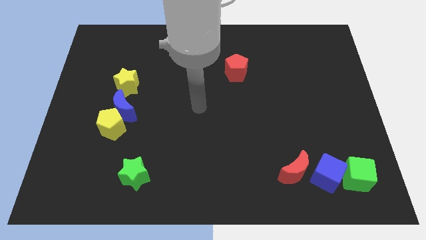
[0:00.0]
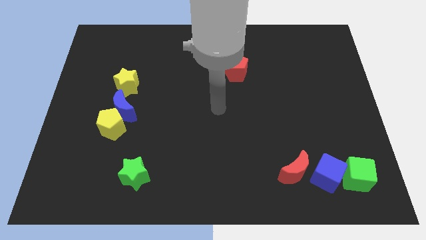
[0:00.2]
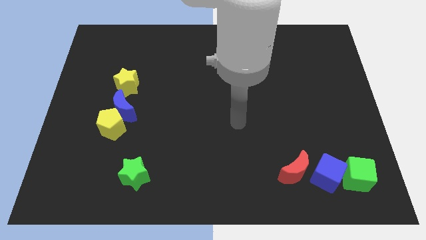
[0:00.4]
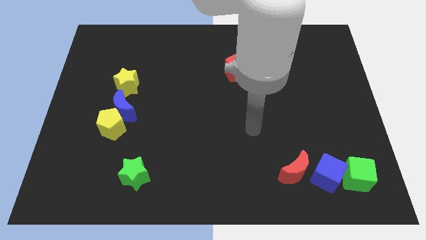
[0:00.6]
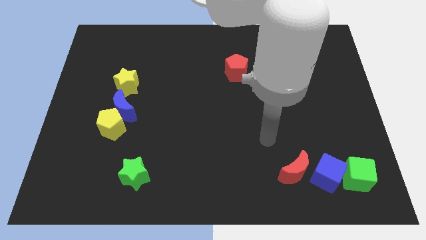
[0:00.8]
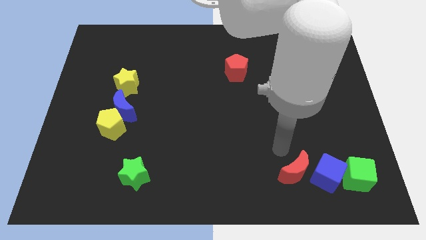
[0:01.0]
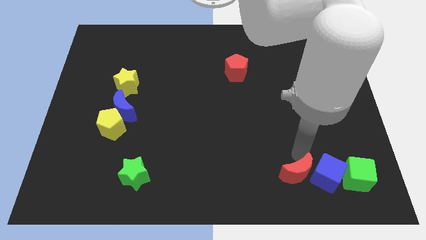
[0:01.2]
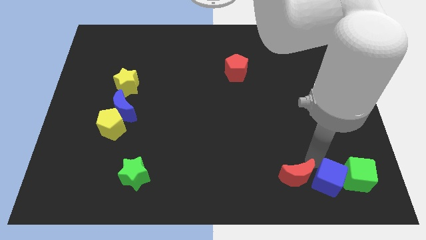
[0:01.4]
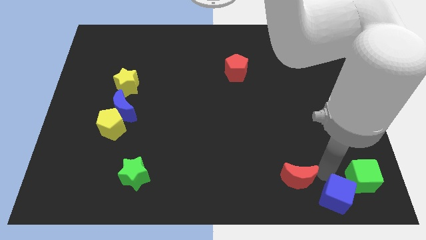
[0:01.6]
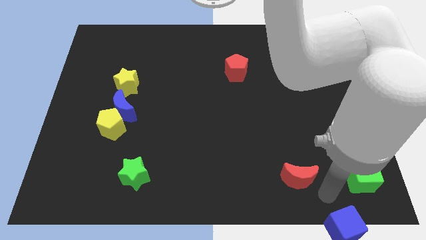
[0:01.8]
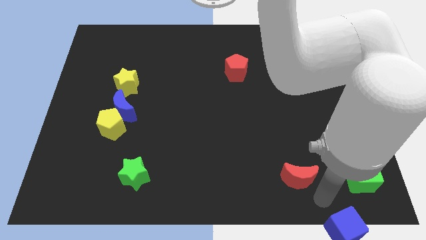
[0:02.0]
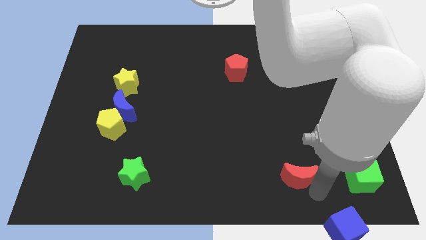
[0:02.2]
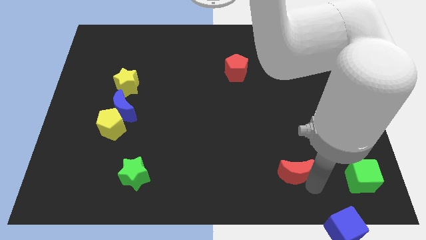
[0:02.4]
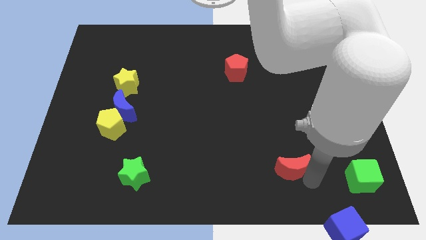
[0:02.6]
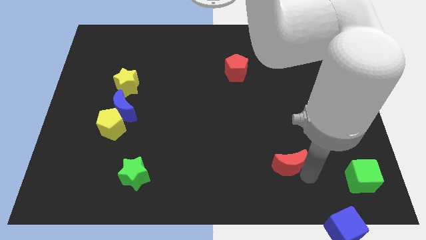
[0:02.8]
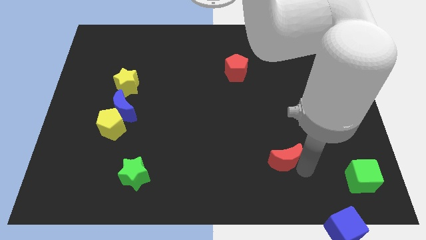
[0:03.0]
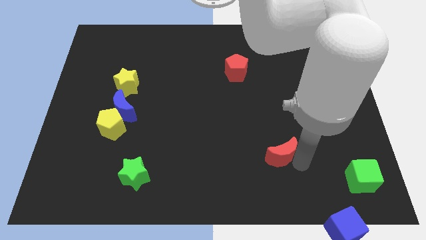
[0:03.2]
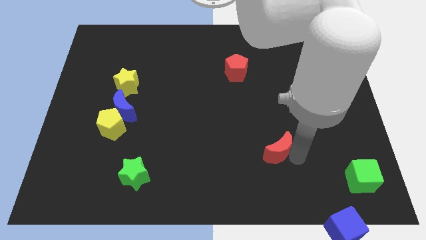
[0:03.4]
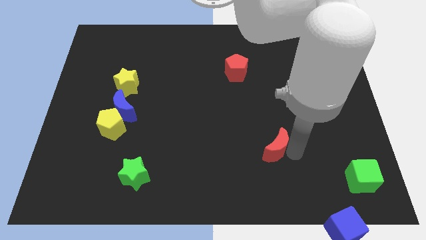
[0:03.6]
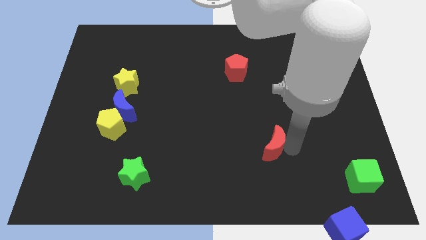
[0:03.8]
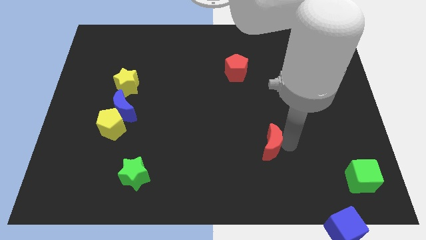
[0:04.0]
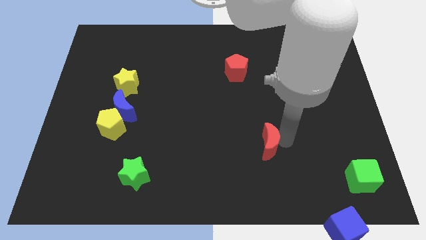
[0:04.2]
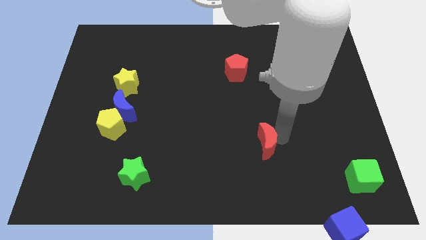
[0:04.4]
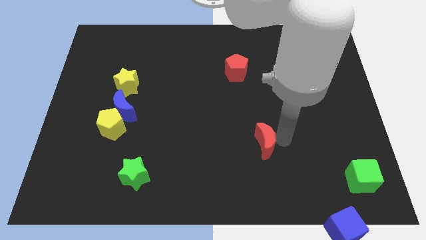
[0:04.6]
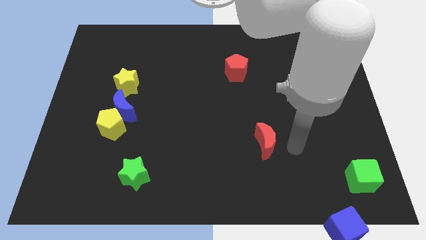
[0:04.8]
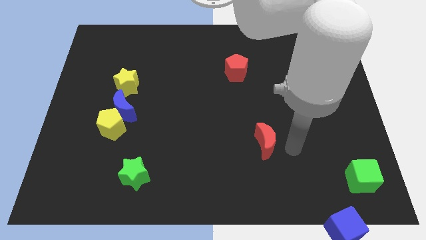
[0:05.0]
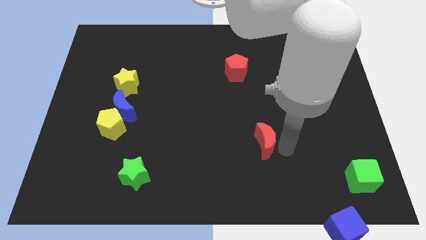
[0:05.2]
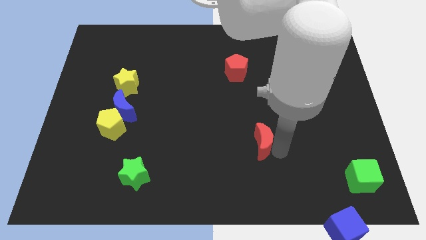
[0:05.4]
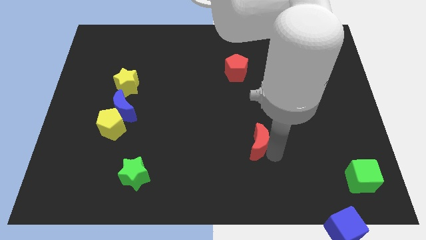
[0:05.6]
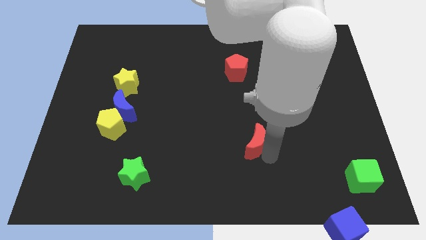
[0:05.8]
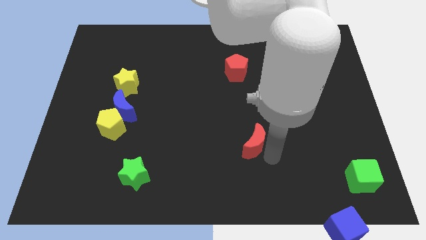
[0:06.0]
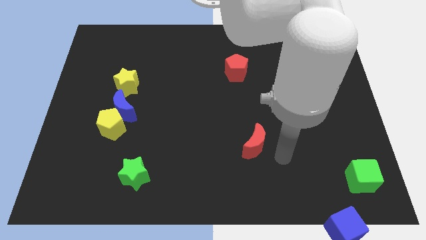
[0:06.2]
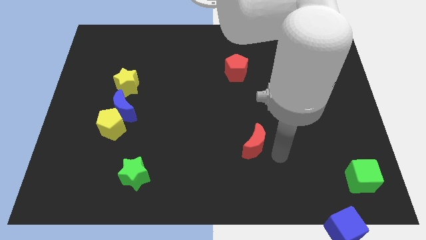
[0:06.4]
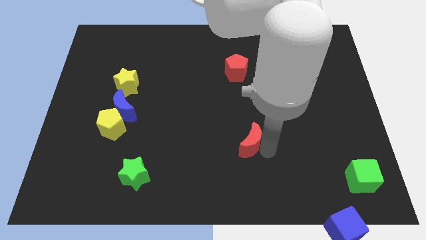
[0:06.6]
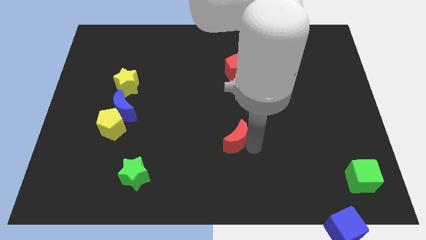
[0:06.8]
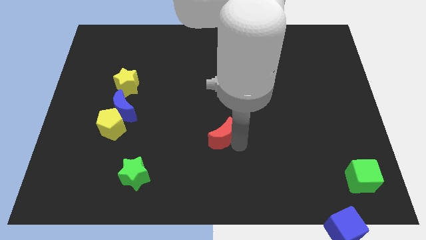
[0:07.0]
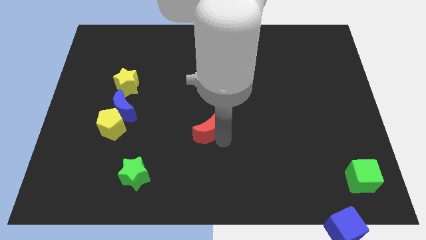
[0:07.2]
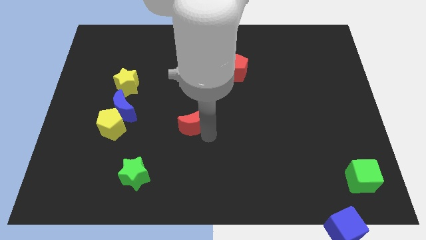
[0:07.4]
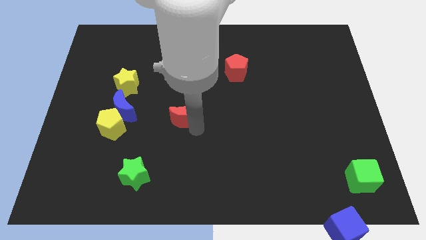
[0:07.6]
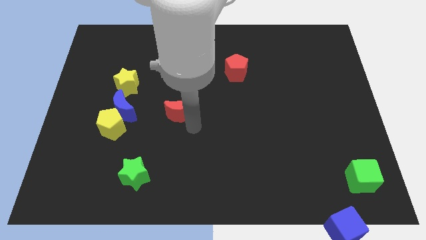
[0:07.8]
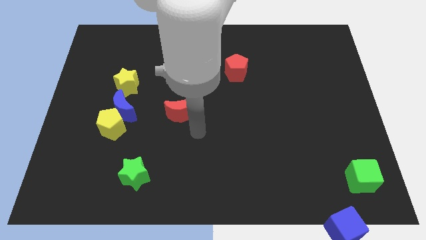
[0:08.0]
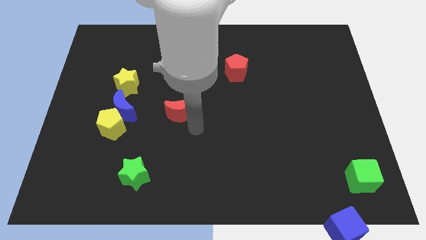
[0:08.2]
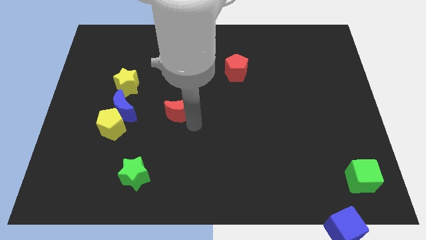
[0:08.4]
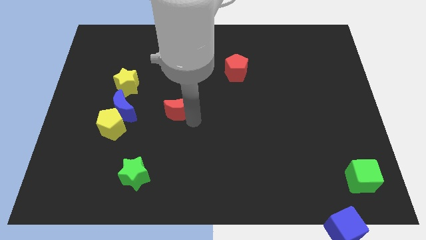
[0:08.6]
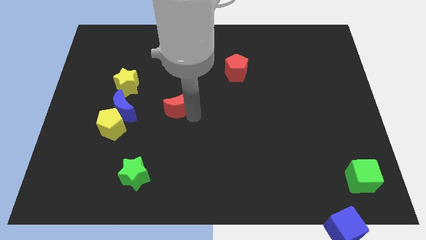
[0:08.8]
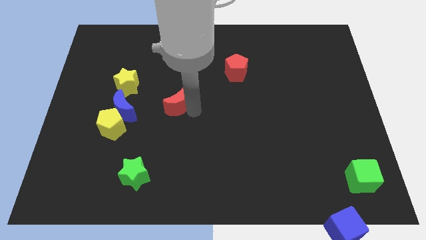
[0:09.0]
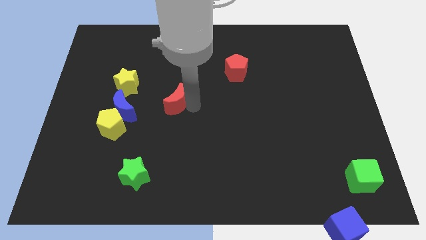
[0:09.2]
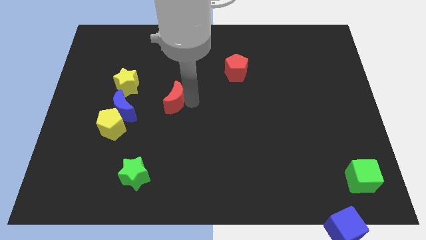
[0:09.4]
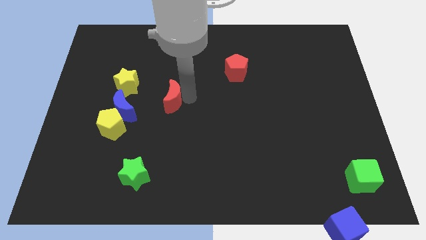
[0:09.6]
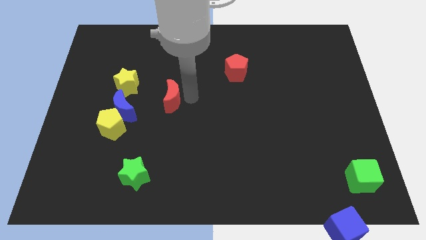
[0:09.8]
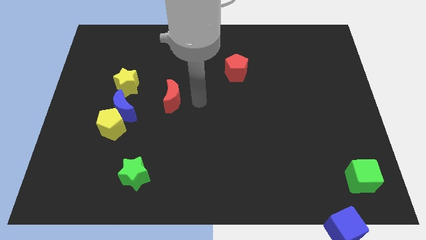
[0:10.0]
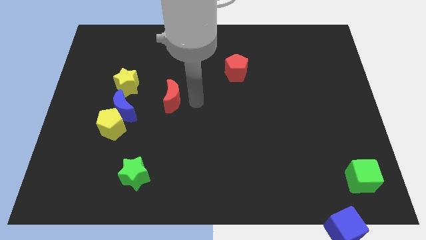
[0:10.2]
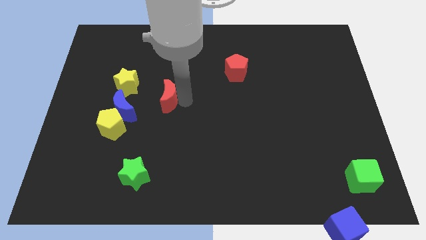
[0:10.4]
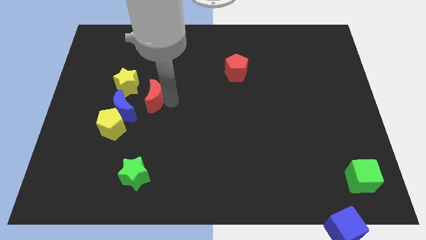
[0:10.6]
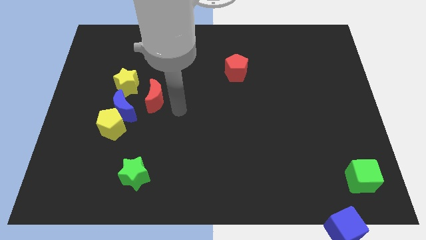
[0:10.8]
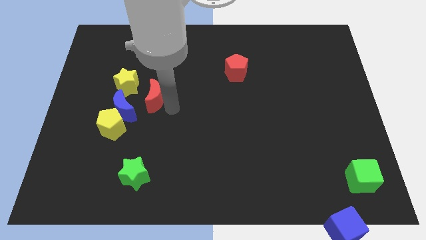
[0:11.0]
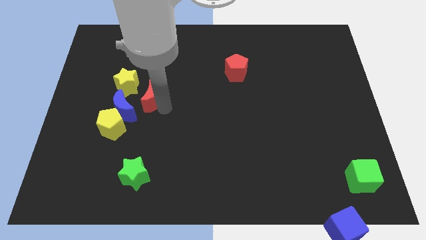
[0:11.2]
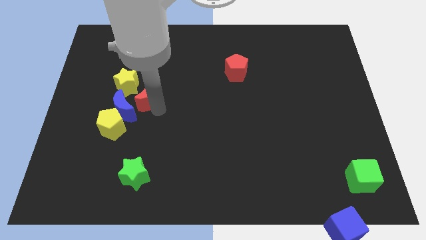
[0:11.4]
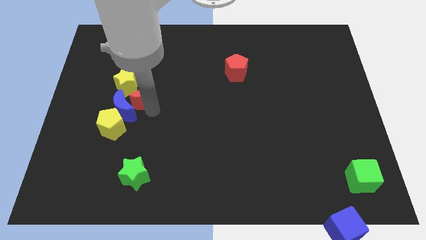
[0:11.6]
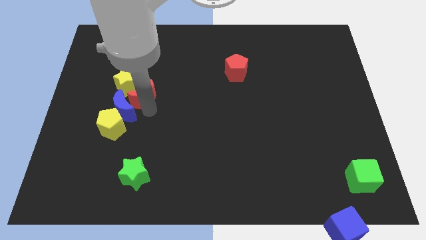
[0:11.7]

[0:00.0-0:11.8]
push the red moon to the yellow star

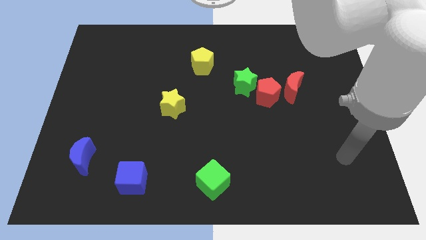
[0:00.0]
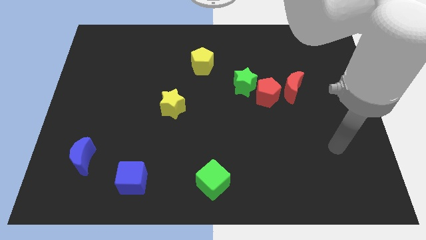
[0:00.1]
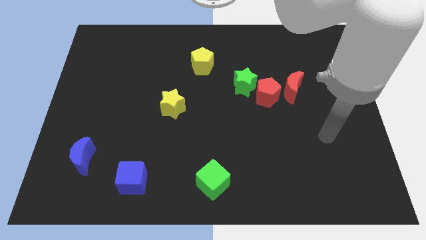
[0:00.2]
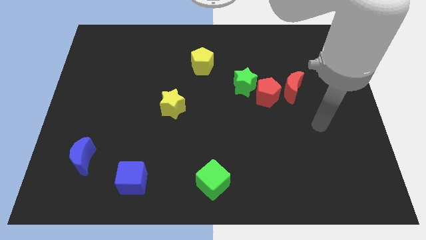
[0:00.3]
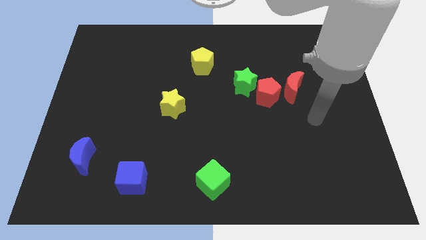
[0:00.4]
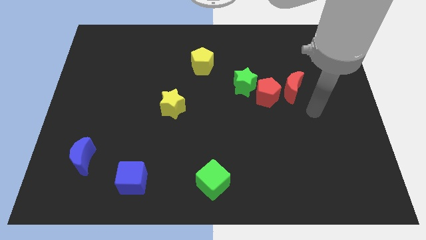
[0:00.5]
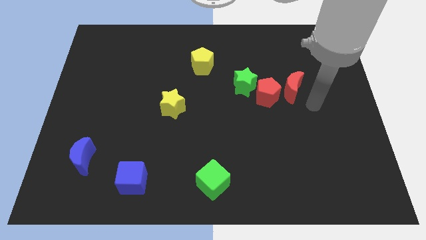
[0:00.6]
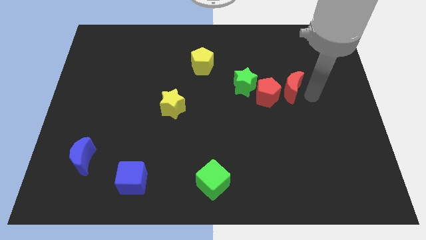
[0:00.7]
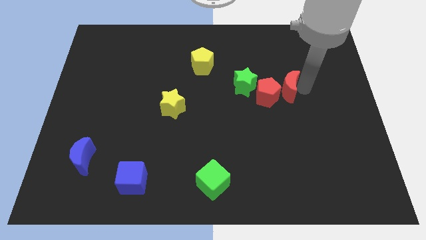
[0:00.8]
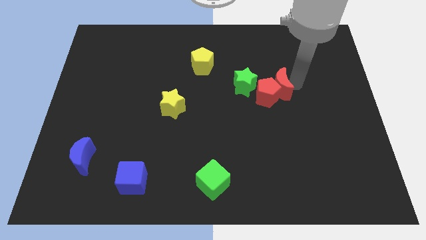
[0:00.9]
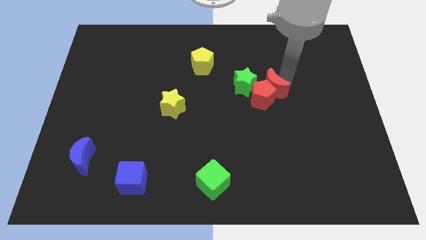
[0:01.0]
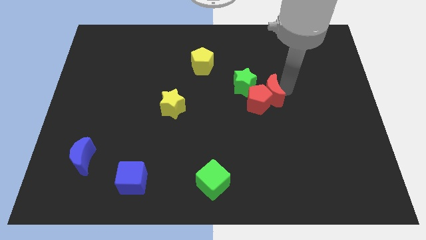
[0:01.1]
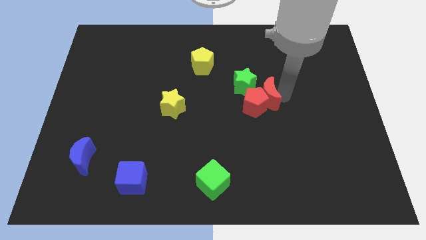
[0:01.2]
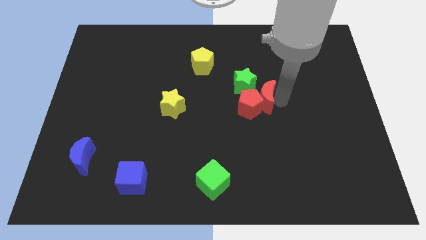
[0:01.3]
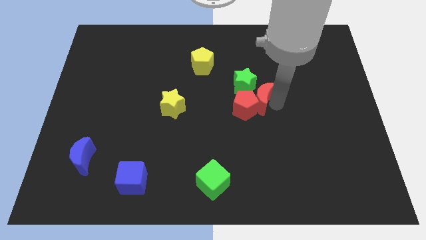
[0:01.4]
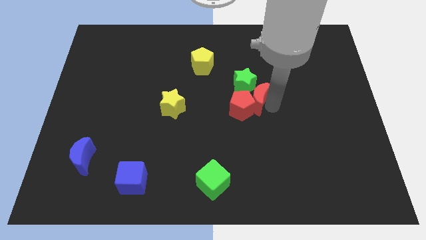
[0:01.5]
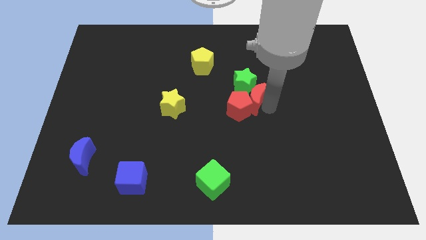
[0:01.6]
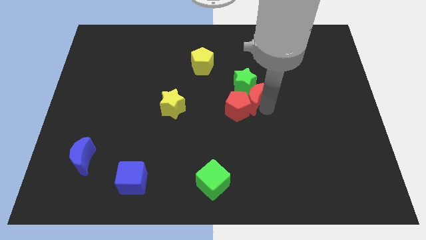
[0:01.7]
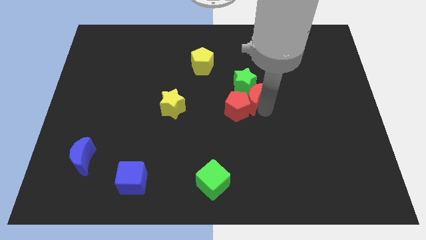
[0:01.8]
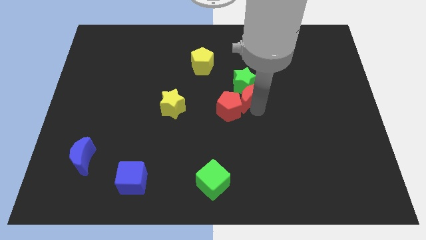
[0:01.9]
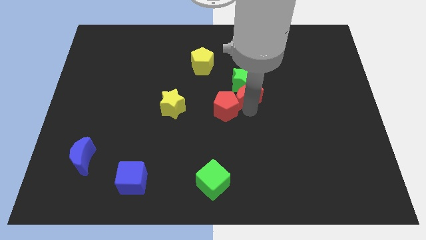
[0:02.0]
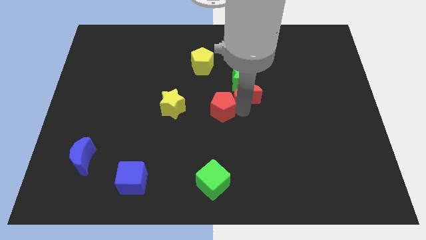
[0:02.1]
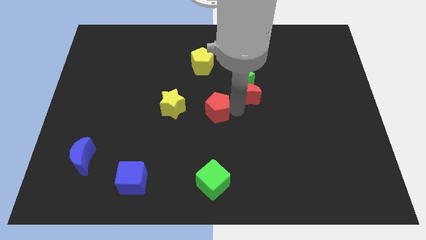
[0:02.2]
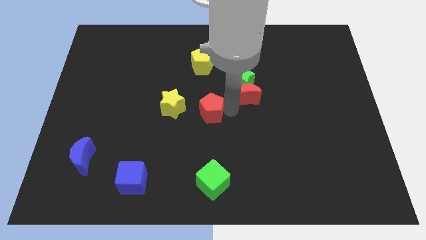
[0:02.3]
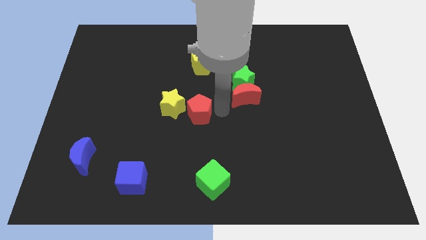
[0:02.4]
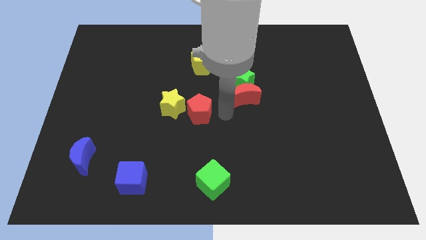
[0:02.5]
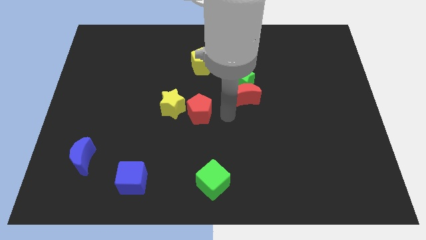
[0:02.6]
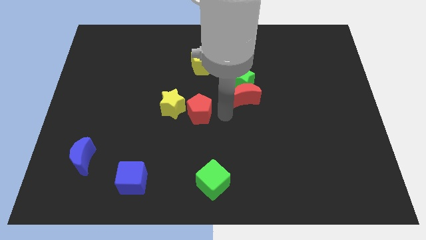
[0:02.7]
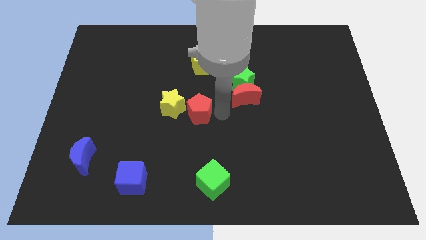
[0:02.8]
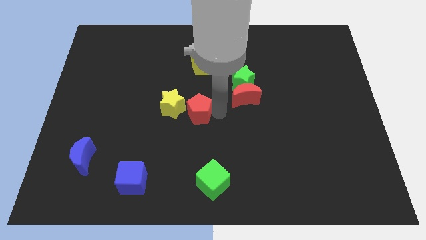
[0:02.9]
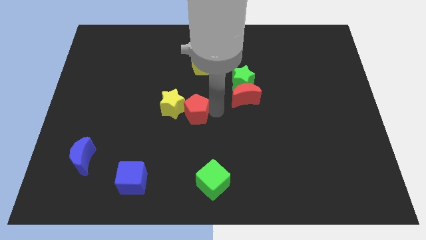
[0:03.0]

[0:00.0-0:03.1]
push the red pentagon close to the yellow star
